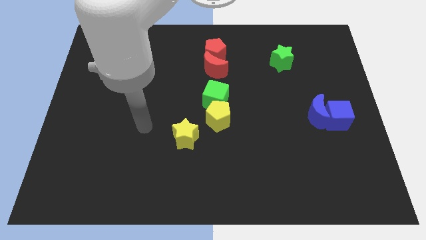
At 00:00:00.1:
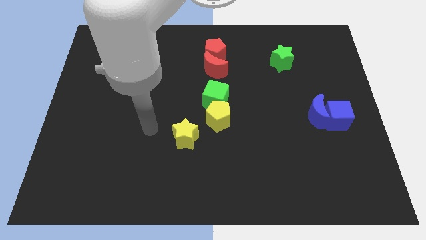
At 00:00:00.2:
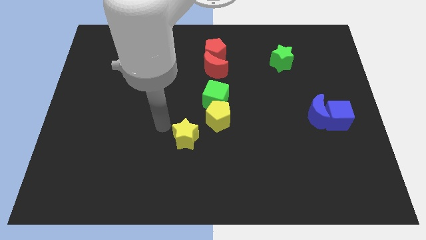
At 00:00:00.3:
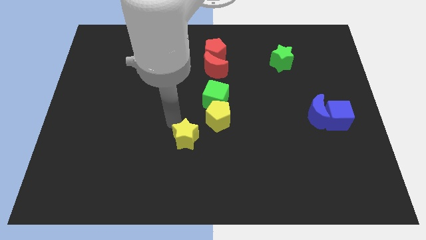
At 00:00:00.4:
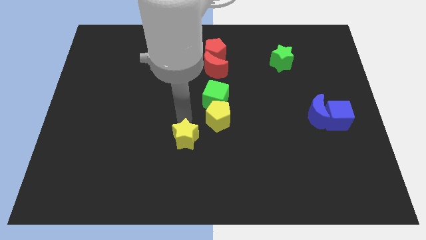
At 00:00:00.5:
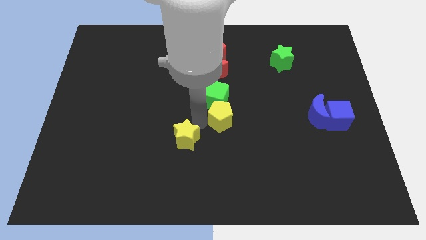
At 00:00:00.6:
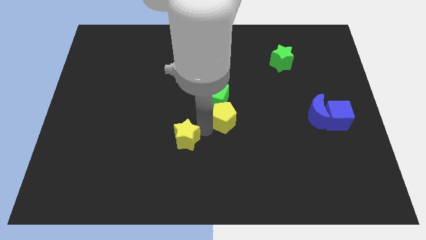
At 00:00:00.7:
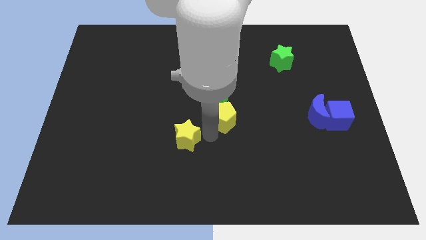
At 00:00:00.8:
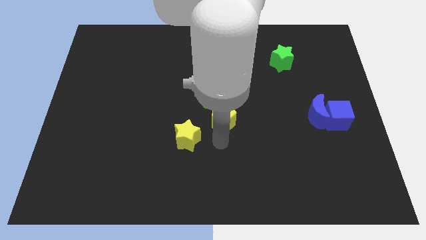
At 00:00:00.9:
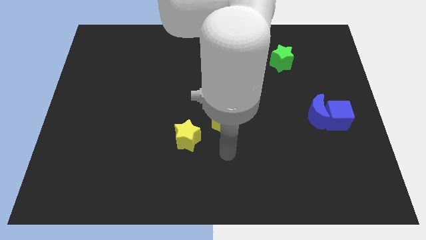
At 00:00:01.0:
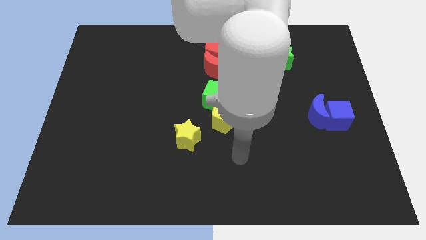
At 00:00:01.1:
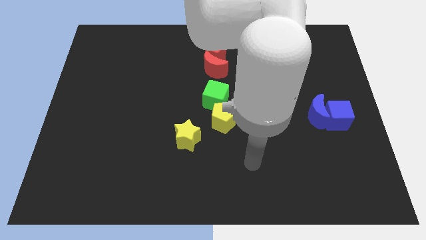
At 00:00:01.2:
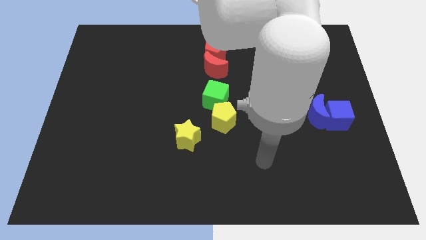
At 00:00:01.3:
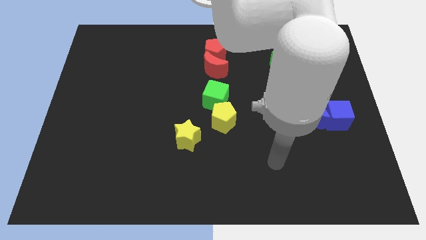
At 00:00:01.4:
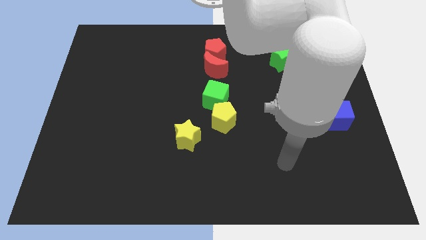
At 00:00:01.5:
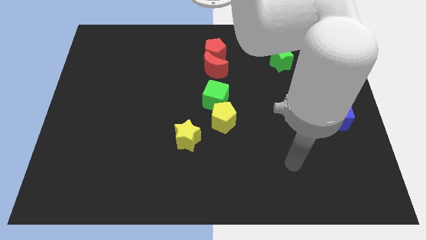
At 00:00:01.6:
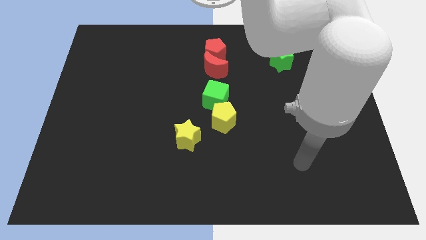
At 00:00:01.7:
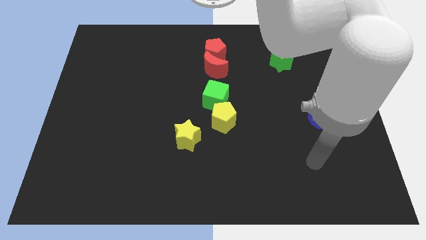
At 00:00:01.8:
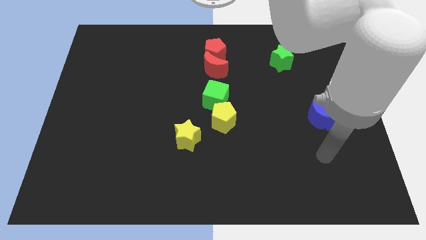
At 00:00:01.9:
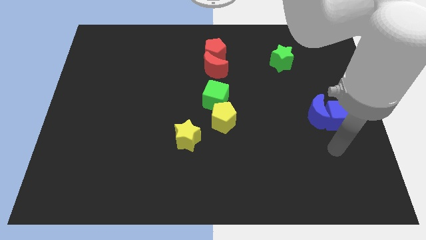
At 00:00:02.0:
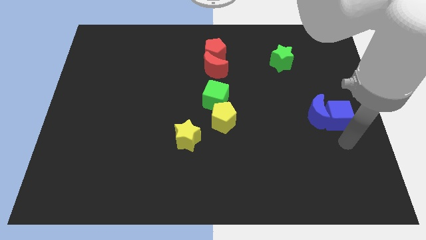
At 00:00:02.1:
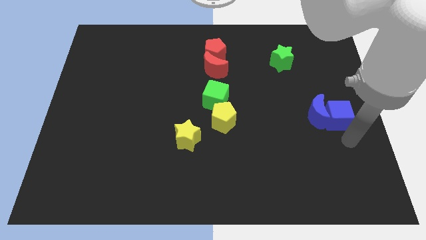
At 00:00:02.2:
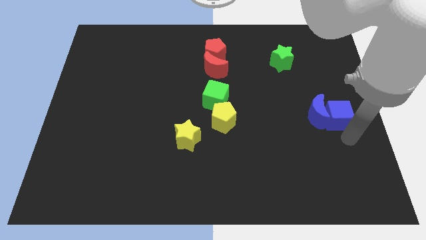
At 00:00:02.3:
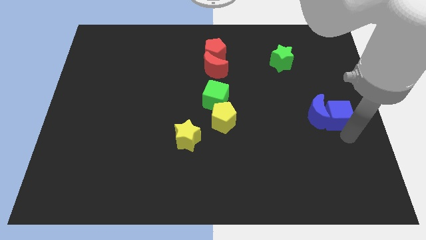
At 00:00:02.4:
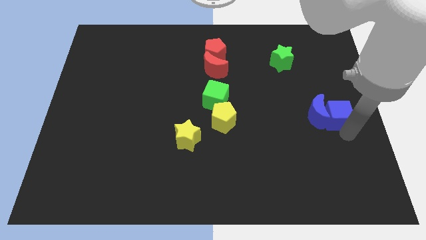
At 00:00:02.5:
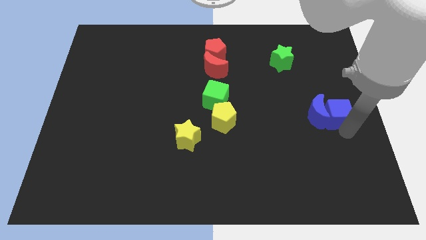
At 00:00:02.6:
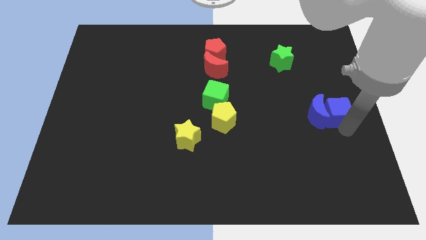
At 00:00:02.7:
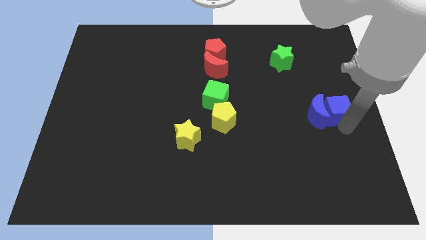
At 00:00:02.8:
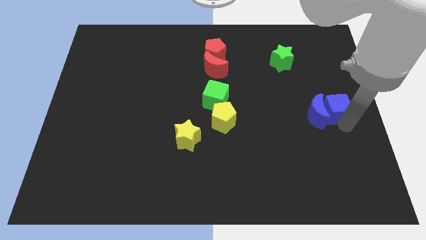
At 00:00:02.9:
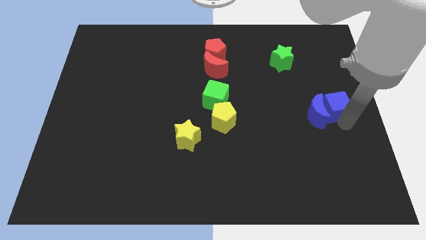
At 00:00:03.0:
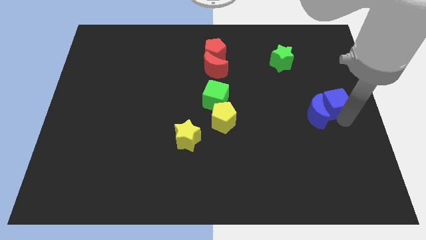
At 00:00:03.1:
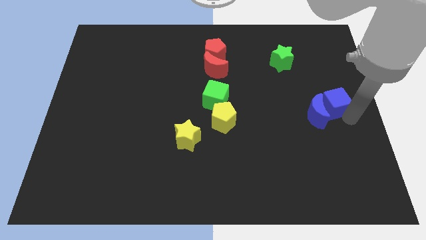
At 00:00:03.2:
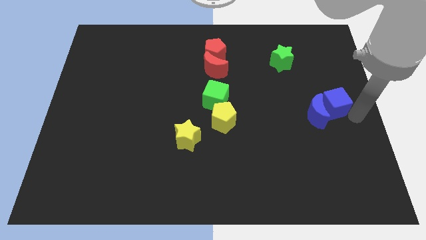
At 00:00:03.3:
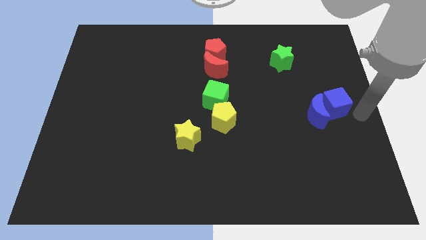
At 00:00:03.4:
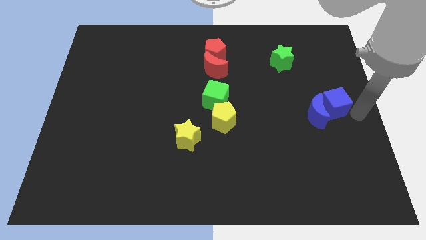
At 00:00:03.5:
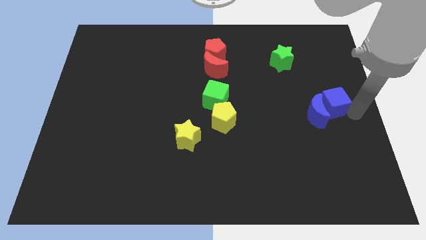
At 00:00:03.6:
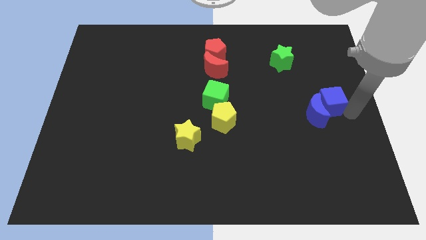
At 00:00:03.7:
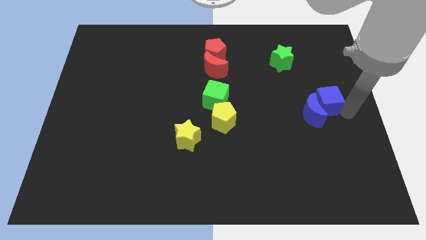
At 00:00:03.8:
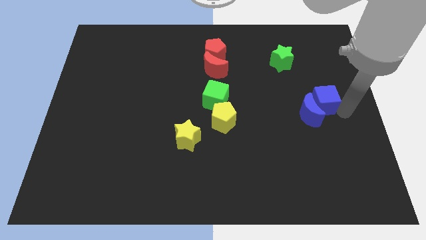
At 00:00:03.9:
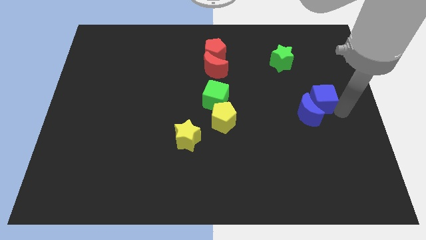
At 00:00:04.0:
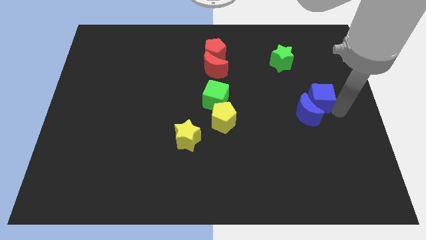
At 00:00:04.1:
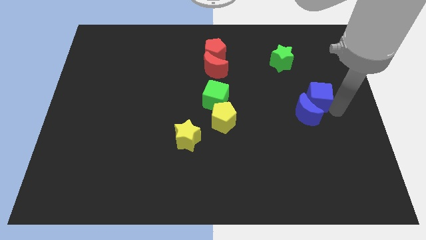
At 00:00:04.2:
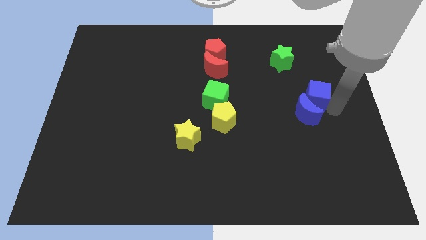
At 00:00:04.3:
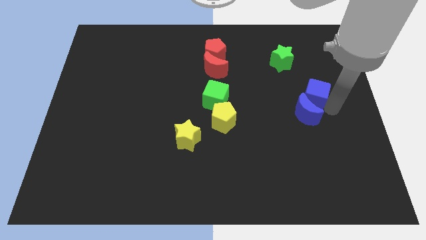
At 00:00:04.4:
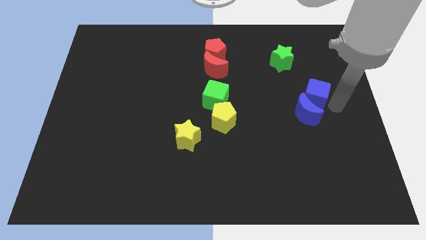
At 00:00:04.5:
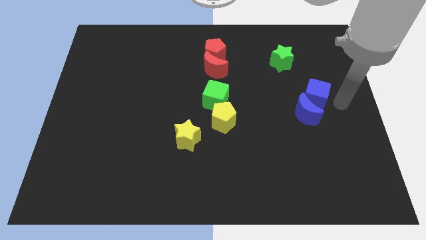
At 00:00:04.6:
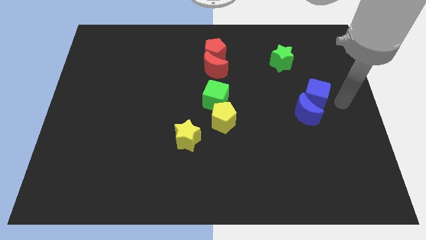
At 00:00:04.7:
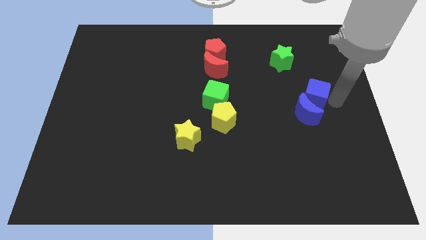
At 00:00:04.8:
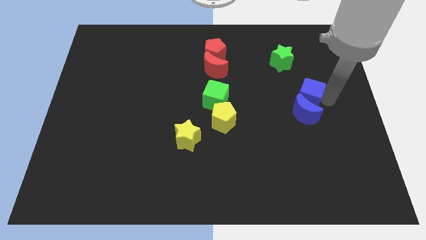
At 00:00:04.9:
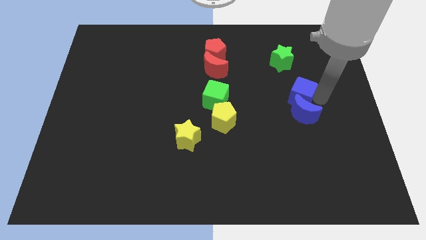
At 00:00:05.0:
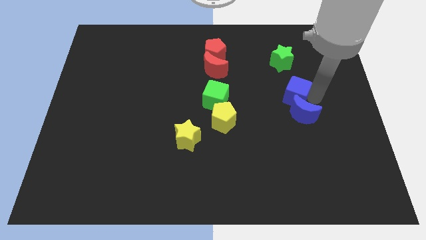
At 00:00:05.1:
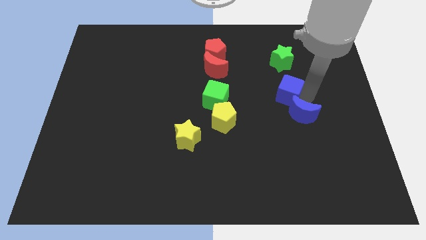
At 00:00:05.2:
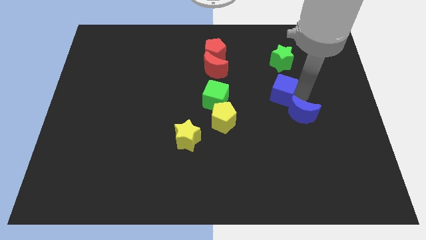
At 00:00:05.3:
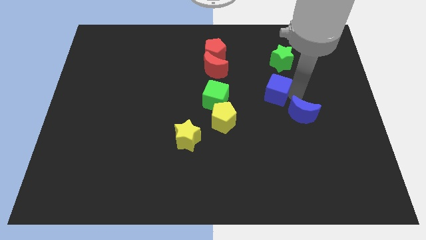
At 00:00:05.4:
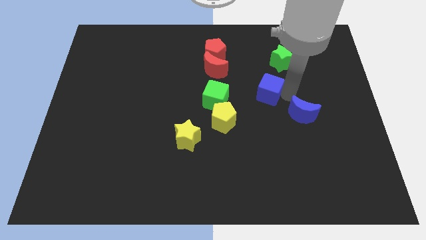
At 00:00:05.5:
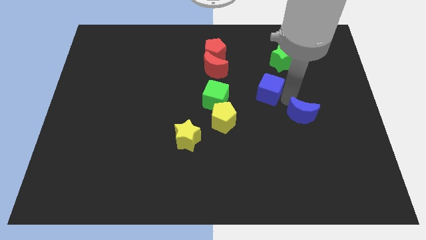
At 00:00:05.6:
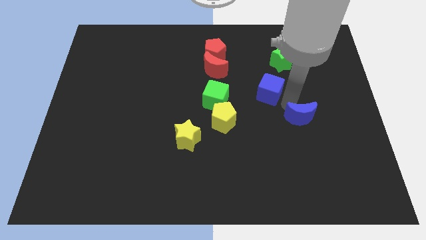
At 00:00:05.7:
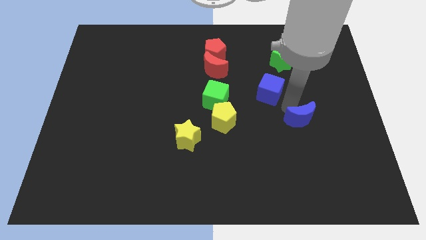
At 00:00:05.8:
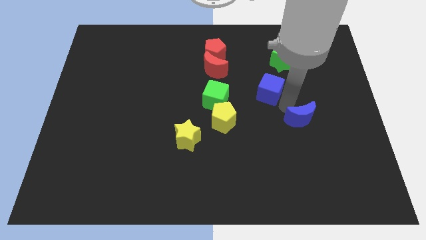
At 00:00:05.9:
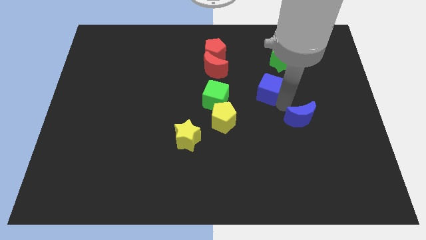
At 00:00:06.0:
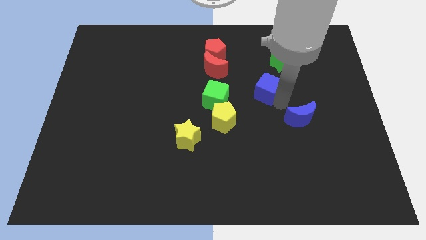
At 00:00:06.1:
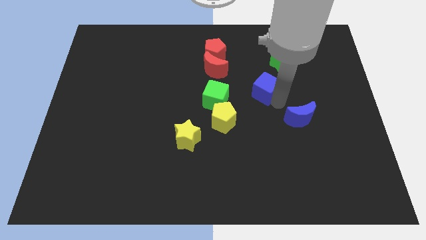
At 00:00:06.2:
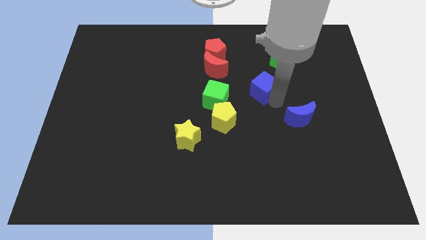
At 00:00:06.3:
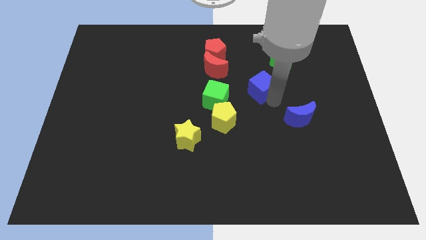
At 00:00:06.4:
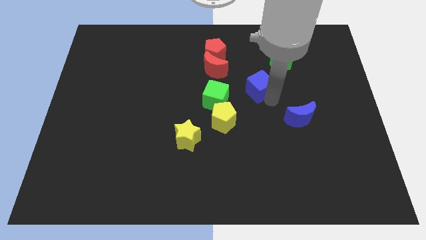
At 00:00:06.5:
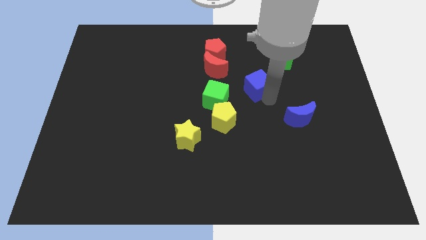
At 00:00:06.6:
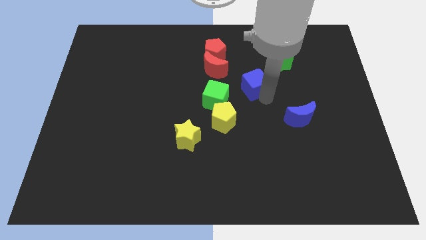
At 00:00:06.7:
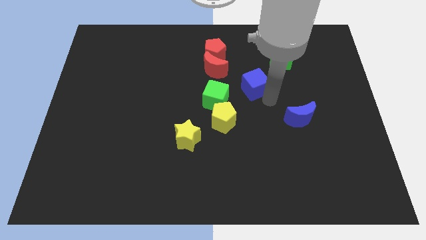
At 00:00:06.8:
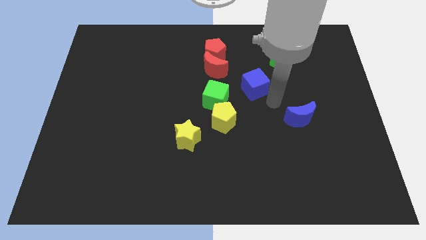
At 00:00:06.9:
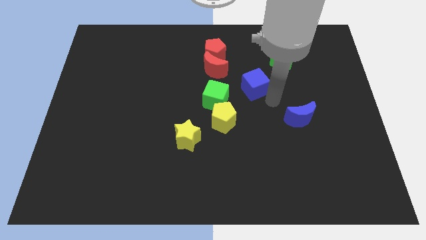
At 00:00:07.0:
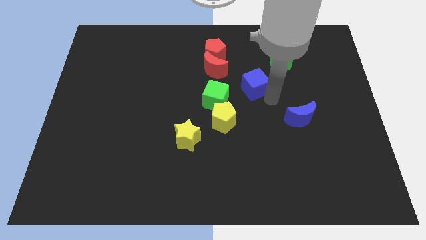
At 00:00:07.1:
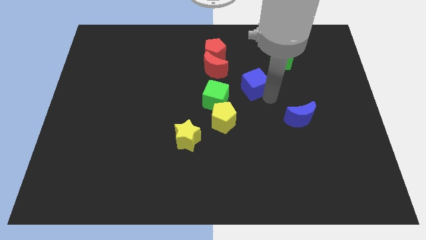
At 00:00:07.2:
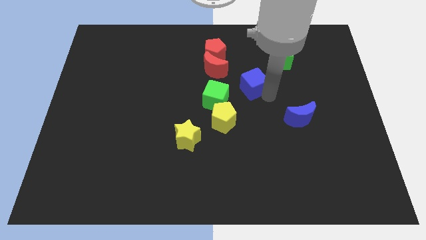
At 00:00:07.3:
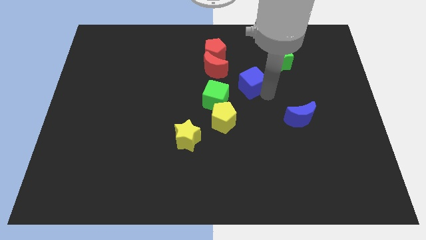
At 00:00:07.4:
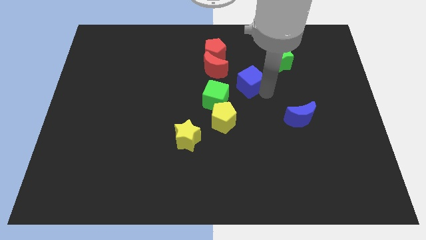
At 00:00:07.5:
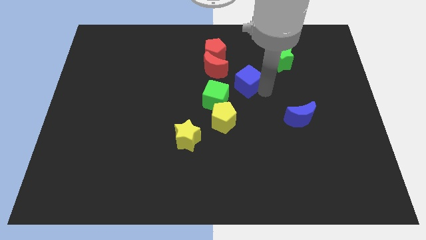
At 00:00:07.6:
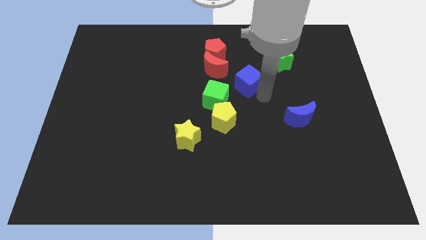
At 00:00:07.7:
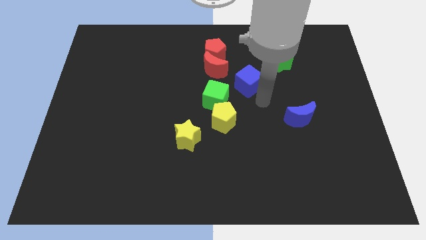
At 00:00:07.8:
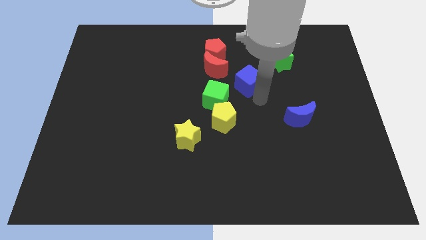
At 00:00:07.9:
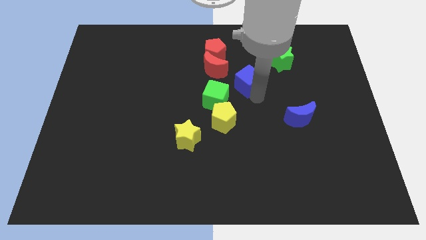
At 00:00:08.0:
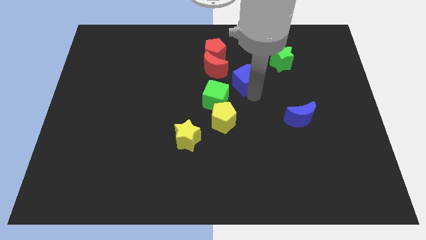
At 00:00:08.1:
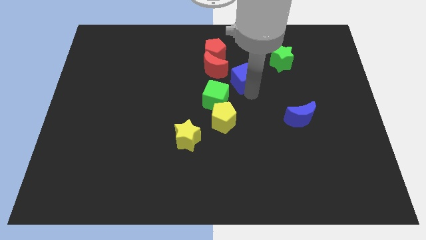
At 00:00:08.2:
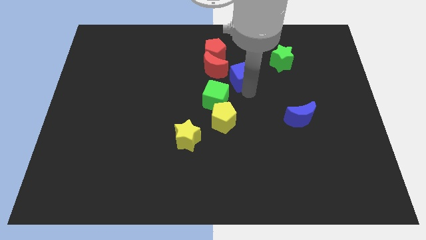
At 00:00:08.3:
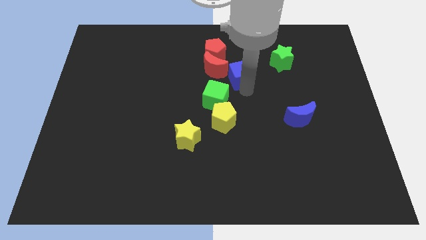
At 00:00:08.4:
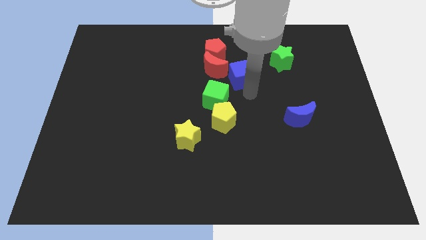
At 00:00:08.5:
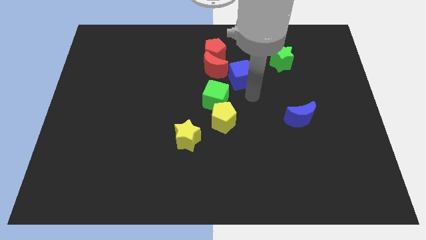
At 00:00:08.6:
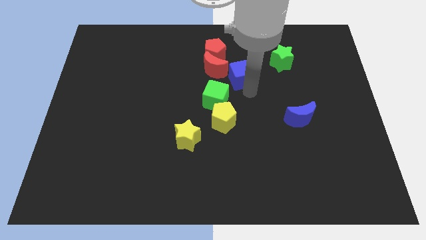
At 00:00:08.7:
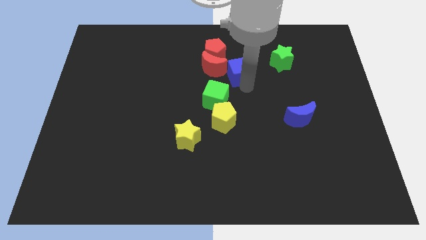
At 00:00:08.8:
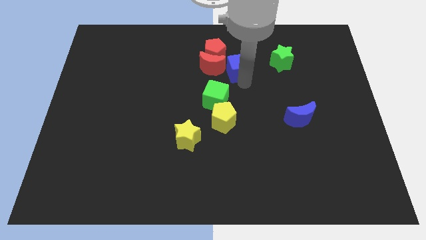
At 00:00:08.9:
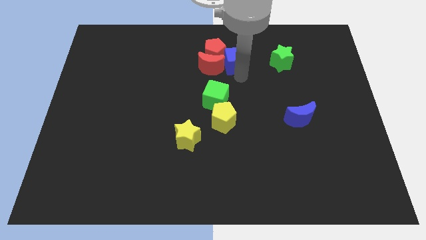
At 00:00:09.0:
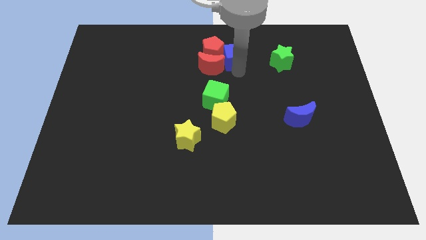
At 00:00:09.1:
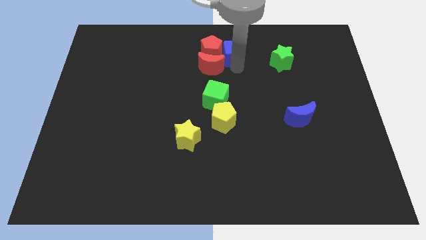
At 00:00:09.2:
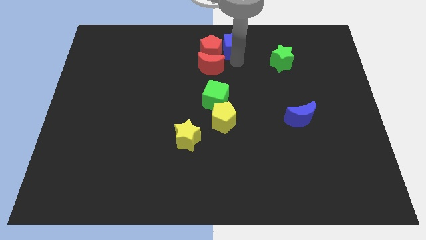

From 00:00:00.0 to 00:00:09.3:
slide the blue cube to the towards your base
